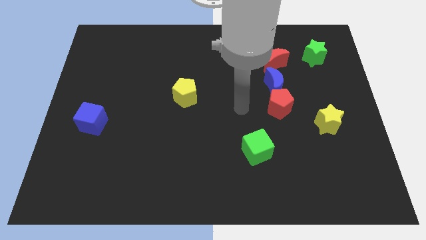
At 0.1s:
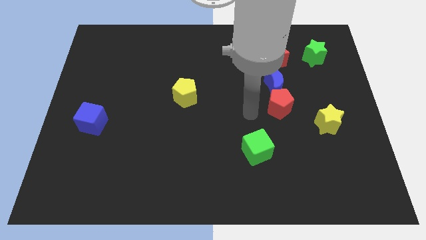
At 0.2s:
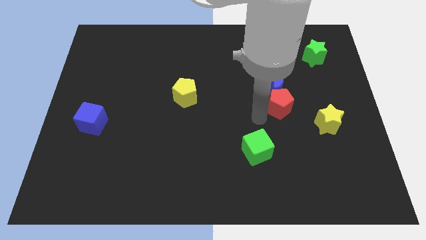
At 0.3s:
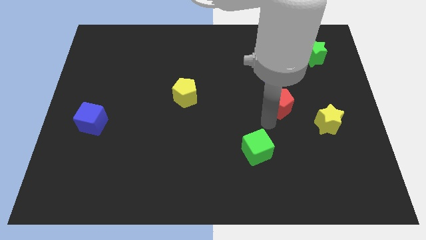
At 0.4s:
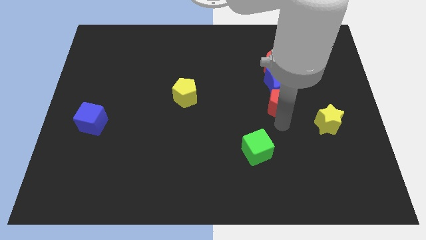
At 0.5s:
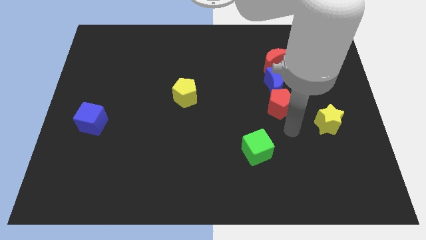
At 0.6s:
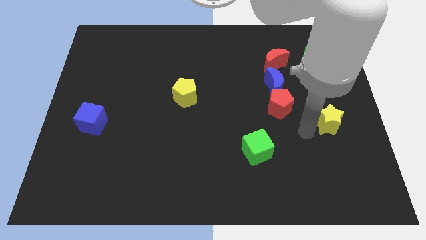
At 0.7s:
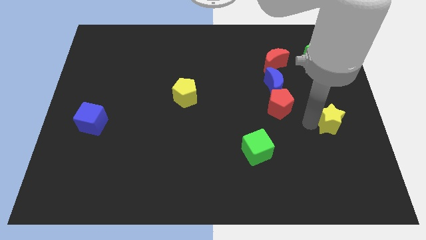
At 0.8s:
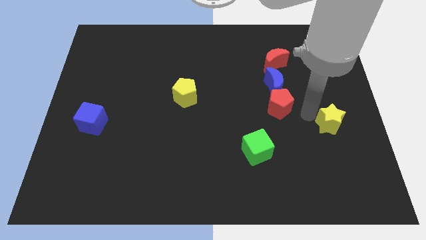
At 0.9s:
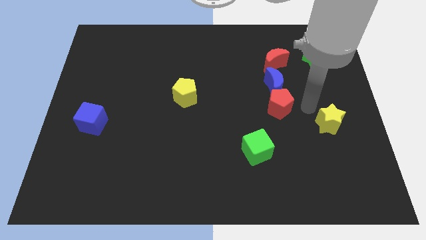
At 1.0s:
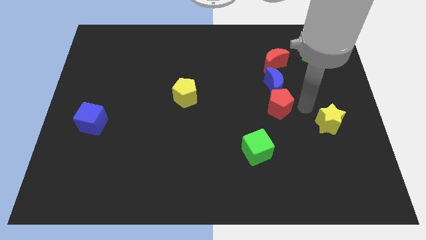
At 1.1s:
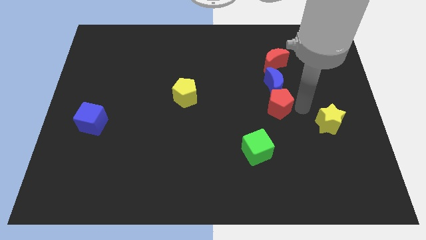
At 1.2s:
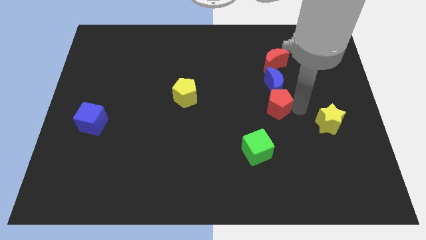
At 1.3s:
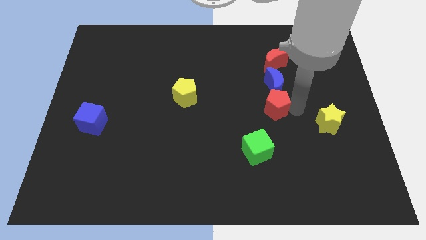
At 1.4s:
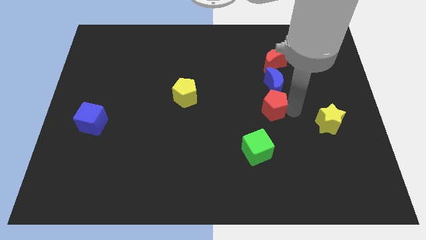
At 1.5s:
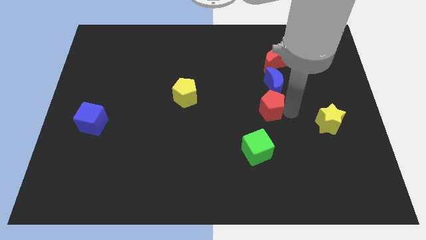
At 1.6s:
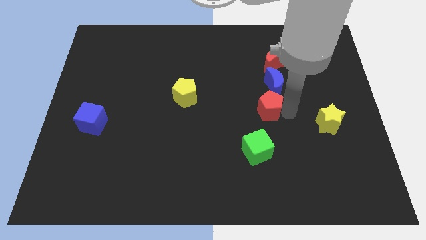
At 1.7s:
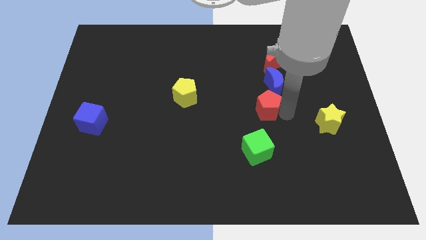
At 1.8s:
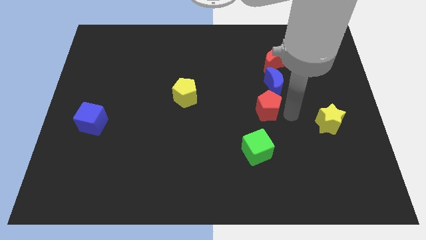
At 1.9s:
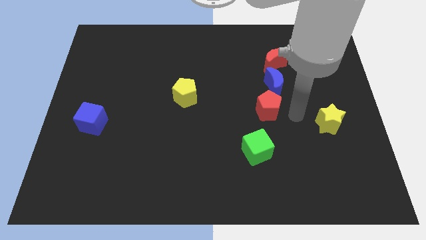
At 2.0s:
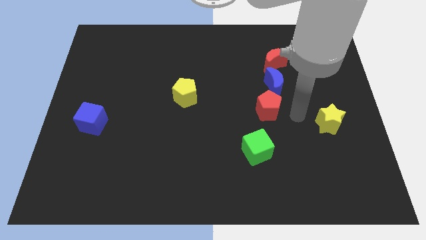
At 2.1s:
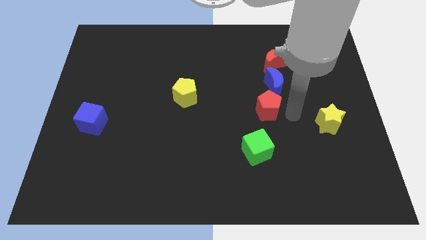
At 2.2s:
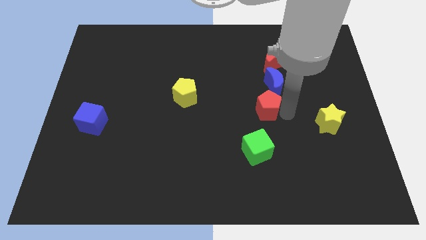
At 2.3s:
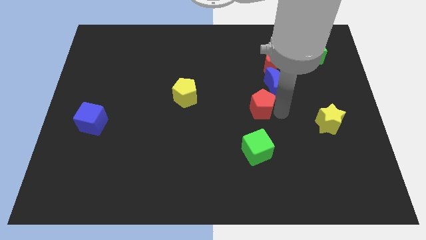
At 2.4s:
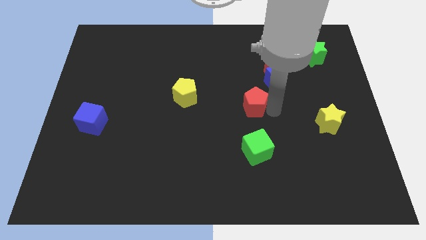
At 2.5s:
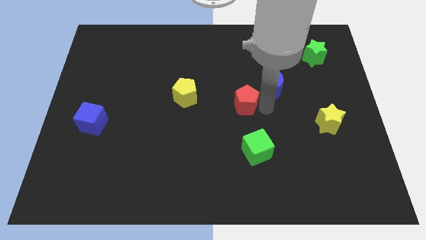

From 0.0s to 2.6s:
move the red pentagon slightly left

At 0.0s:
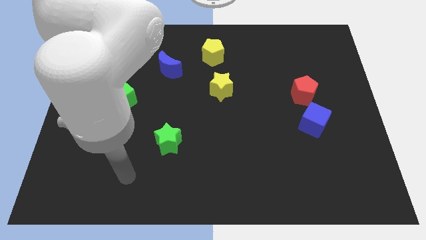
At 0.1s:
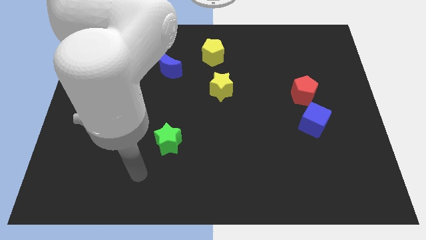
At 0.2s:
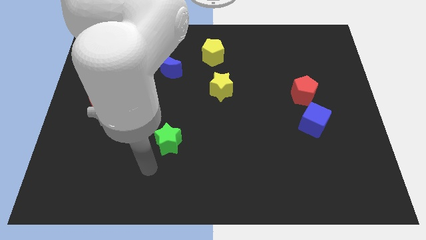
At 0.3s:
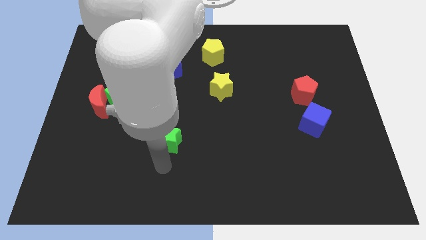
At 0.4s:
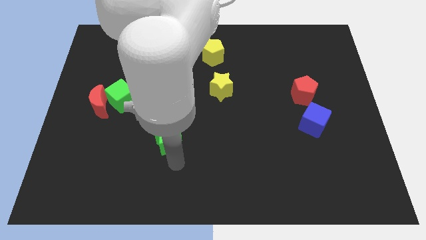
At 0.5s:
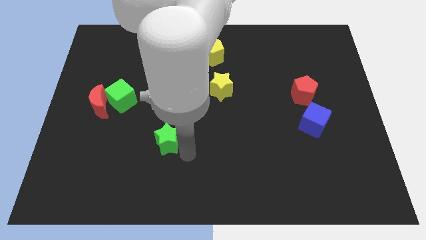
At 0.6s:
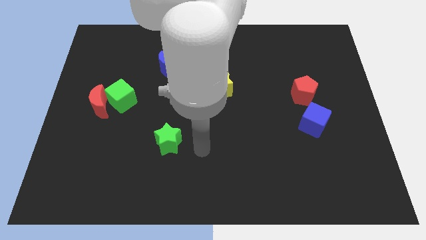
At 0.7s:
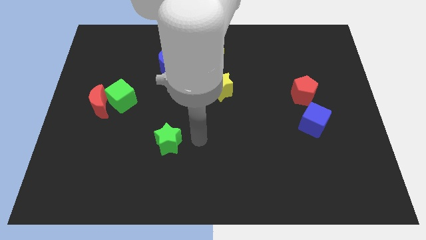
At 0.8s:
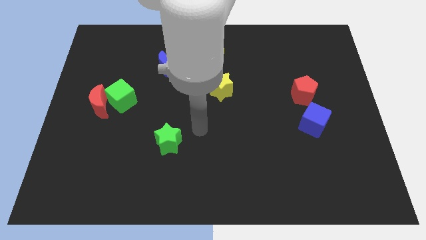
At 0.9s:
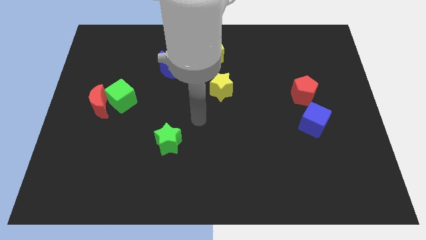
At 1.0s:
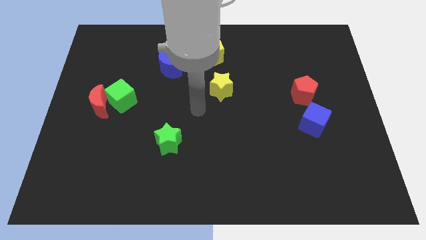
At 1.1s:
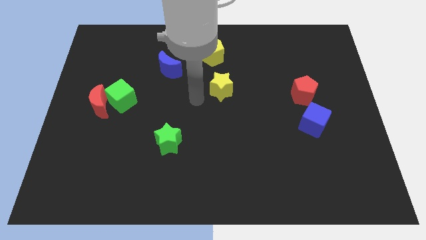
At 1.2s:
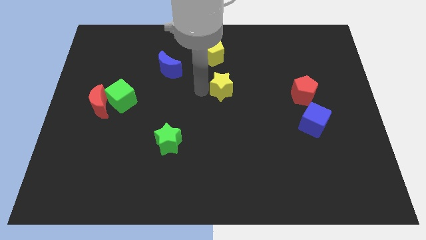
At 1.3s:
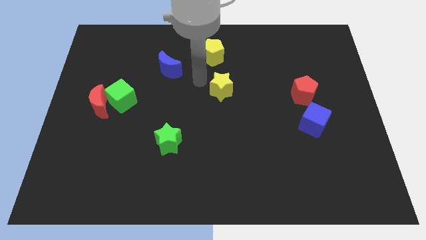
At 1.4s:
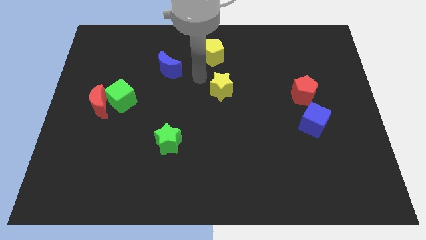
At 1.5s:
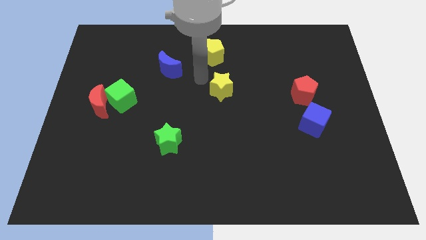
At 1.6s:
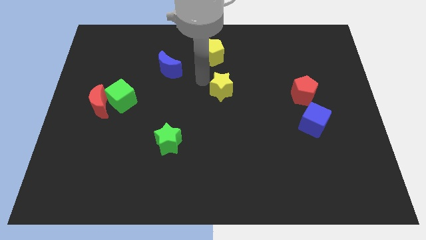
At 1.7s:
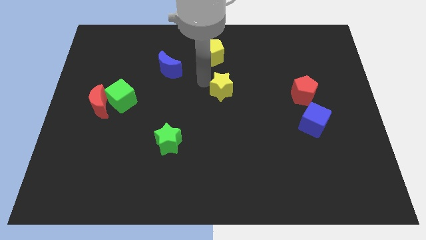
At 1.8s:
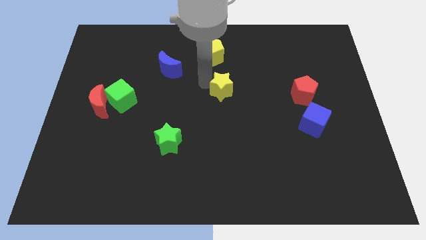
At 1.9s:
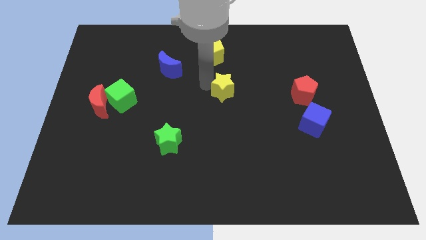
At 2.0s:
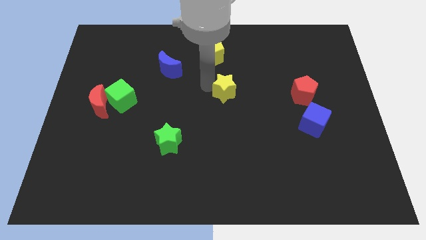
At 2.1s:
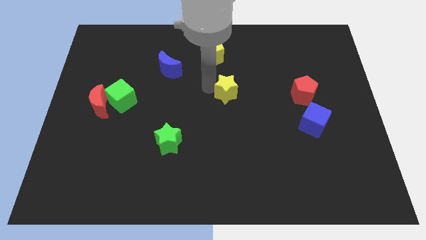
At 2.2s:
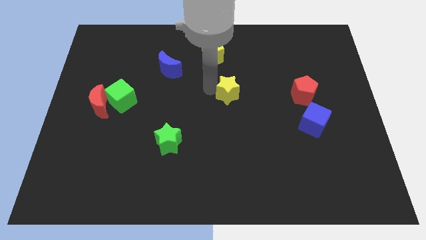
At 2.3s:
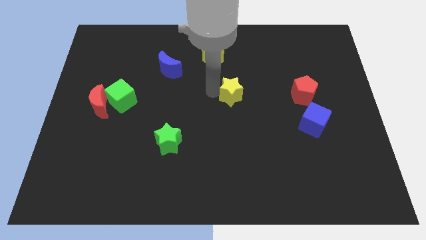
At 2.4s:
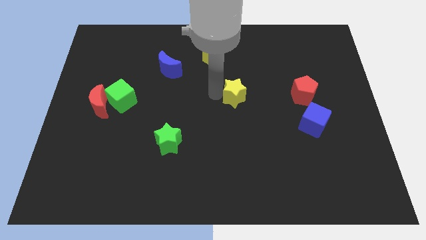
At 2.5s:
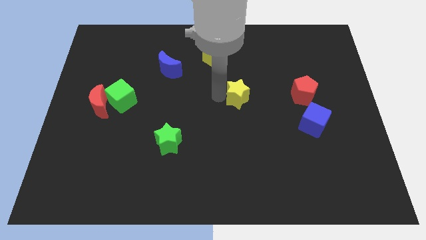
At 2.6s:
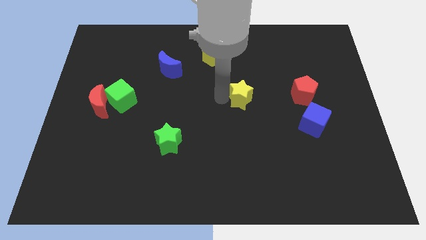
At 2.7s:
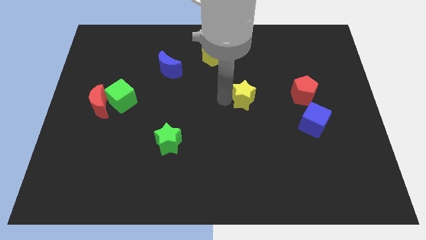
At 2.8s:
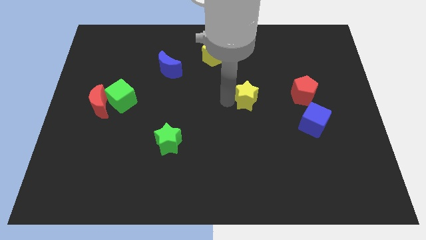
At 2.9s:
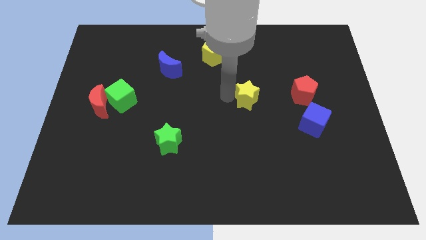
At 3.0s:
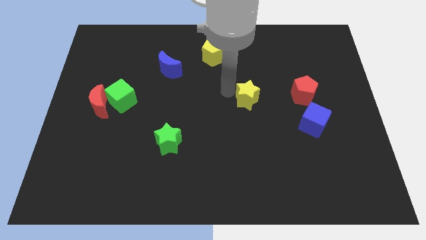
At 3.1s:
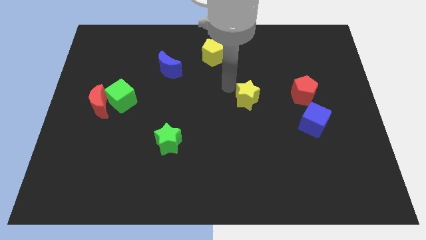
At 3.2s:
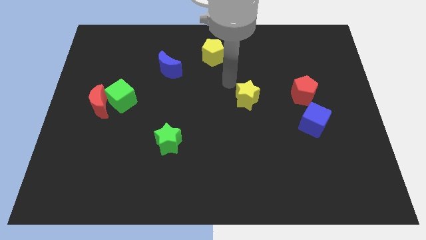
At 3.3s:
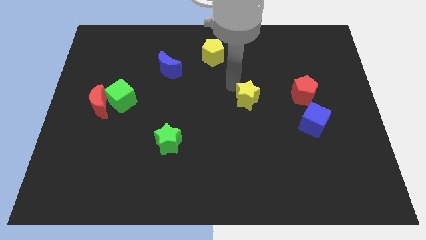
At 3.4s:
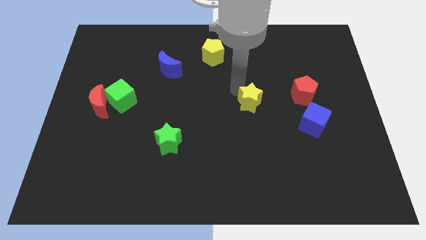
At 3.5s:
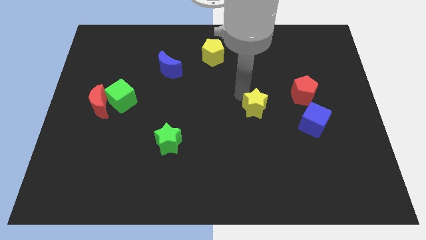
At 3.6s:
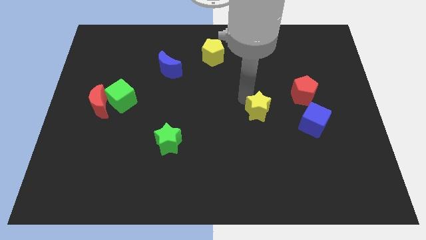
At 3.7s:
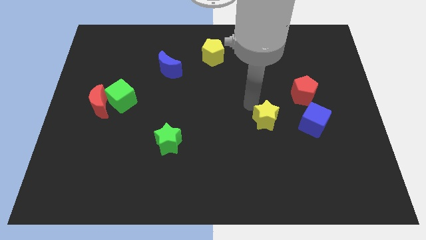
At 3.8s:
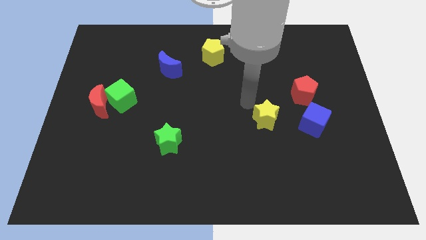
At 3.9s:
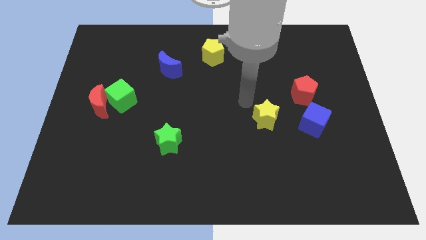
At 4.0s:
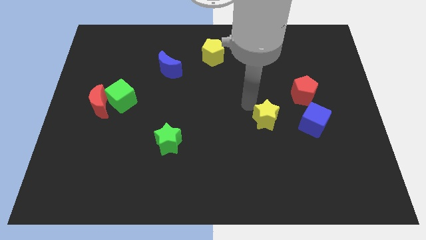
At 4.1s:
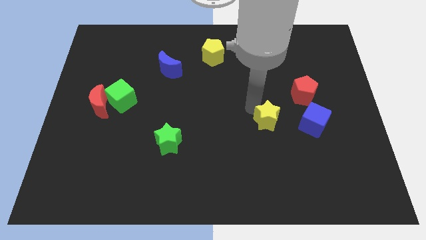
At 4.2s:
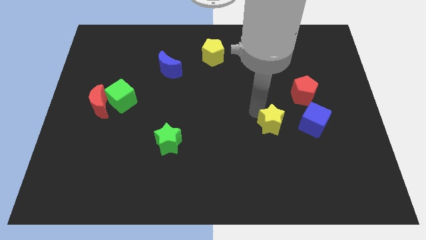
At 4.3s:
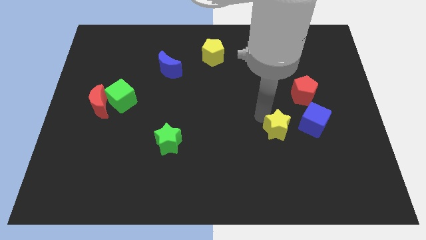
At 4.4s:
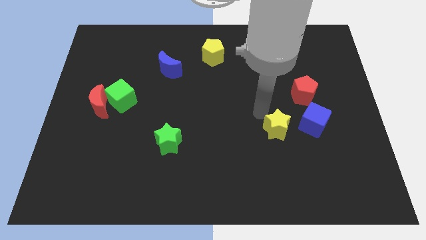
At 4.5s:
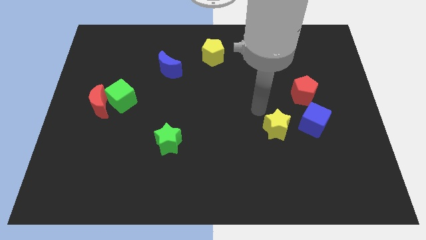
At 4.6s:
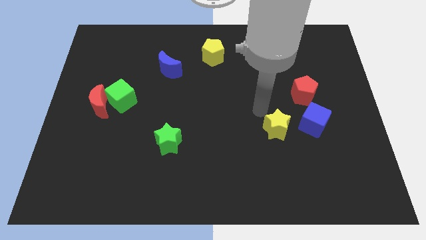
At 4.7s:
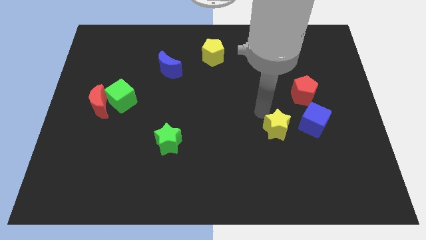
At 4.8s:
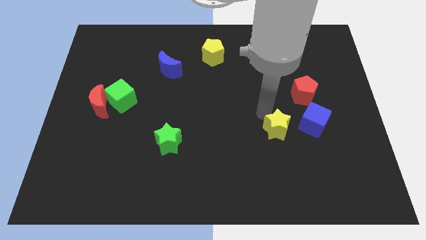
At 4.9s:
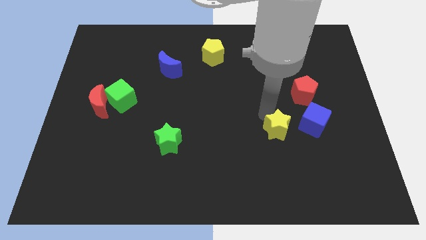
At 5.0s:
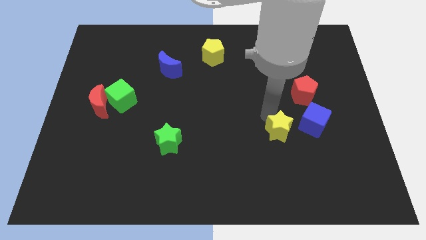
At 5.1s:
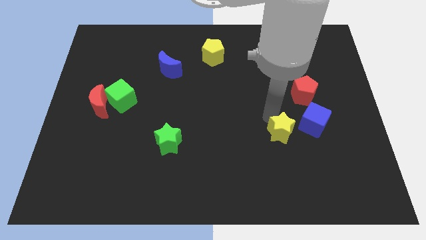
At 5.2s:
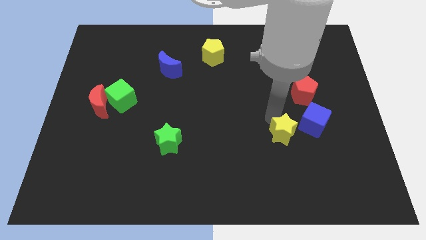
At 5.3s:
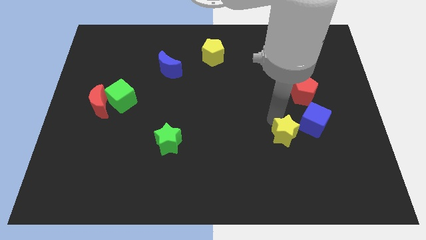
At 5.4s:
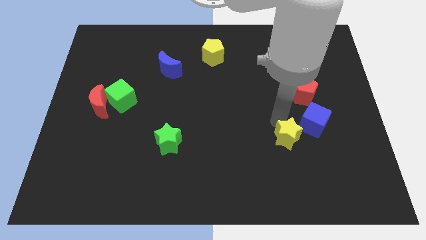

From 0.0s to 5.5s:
push the yellow star diagonally down and right
